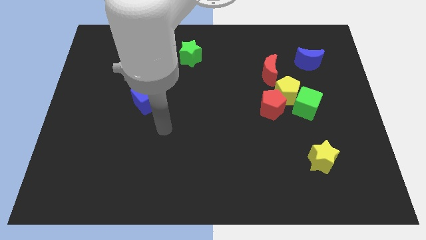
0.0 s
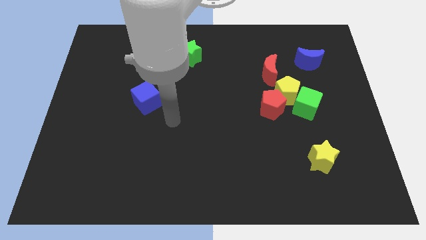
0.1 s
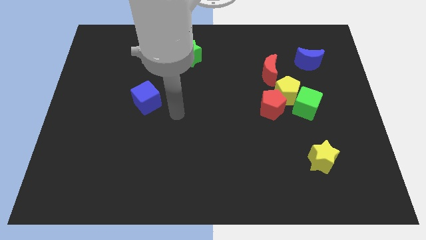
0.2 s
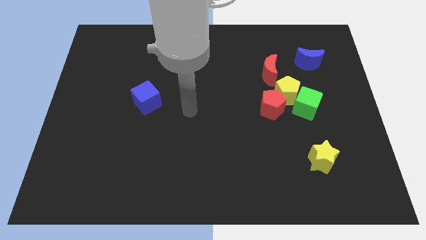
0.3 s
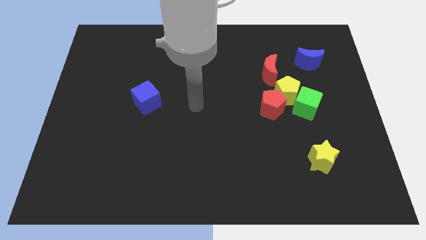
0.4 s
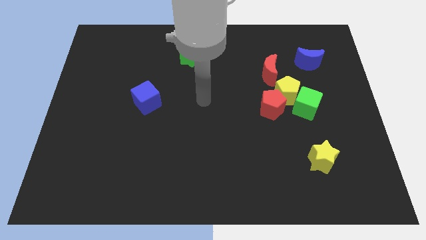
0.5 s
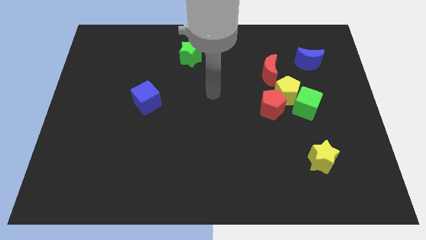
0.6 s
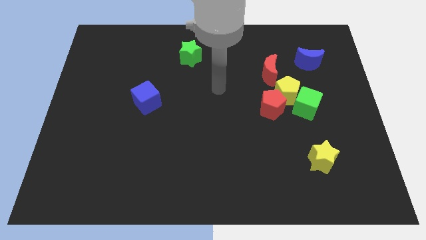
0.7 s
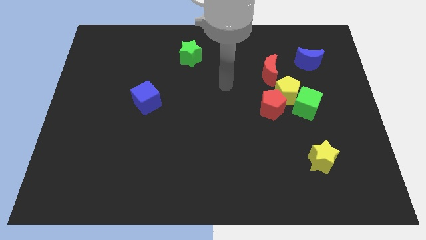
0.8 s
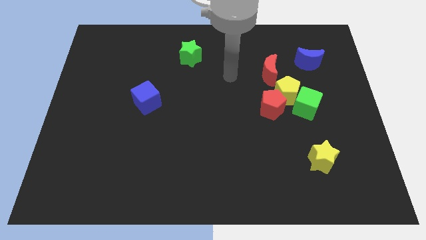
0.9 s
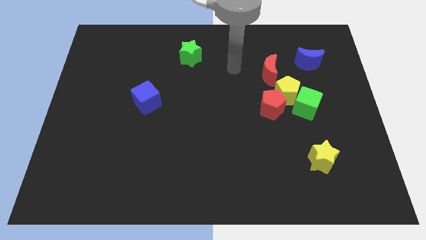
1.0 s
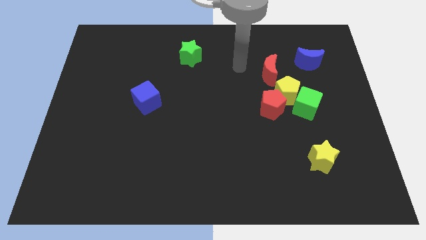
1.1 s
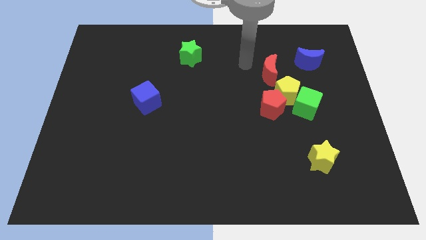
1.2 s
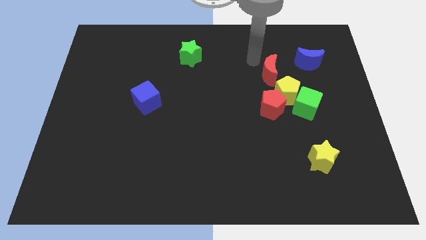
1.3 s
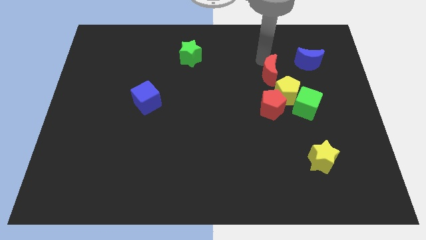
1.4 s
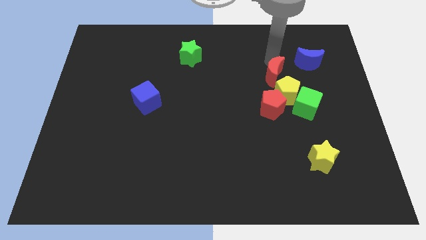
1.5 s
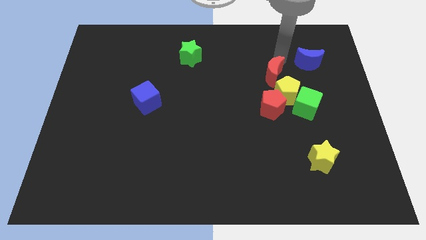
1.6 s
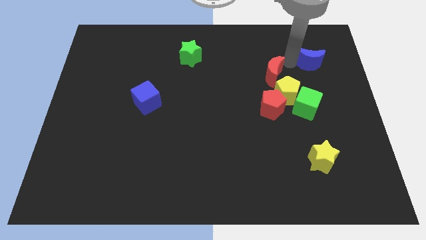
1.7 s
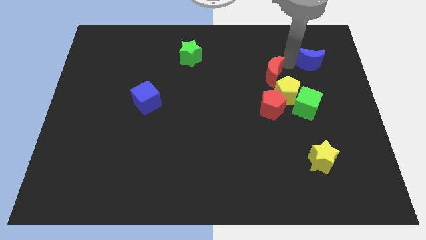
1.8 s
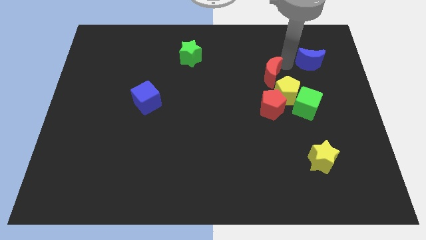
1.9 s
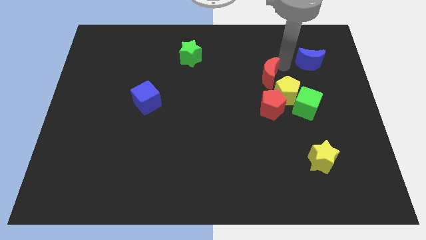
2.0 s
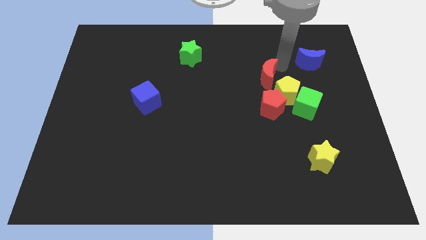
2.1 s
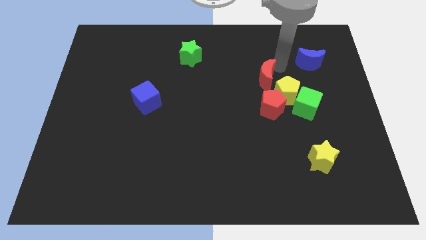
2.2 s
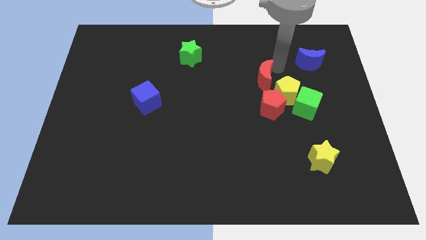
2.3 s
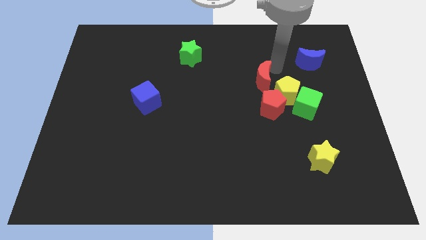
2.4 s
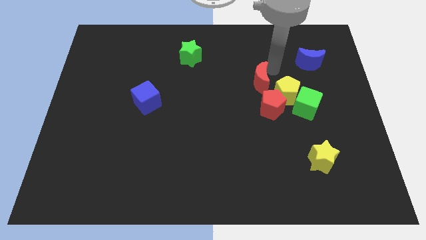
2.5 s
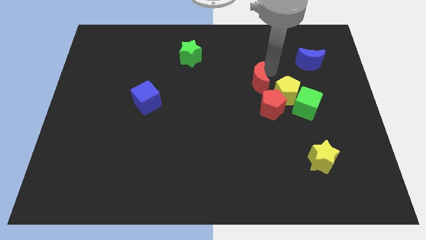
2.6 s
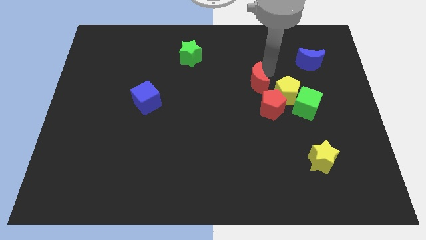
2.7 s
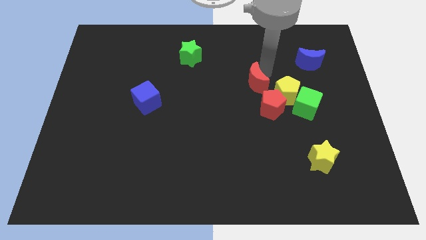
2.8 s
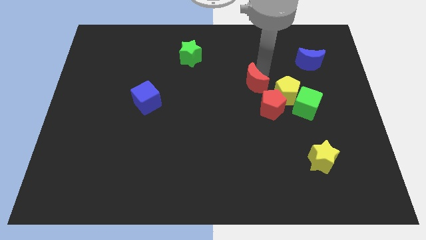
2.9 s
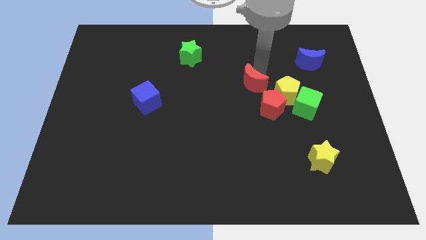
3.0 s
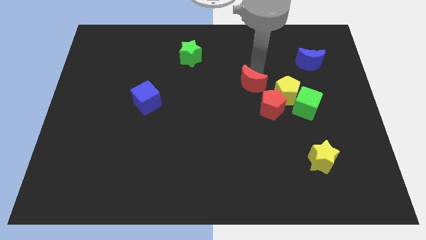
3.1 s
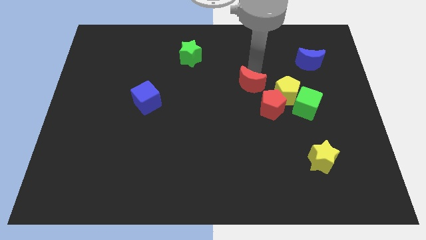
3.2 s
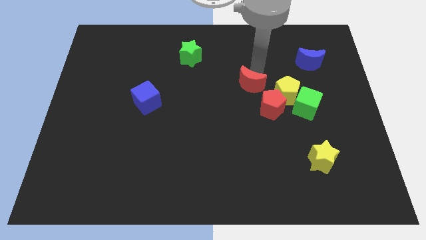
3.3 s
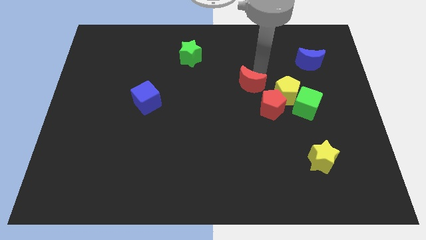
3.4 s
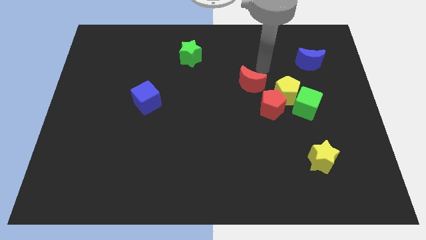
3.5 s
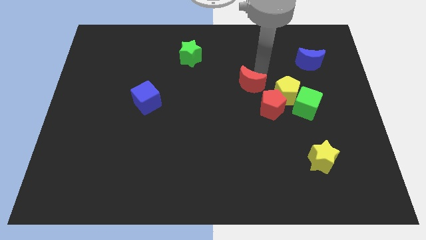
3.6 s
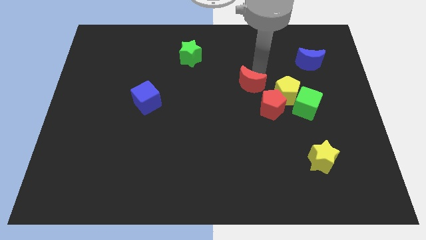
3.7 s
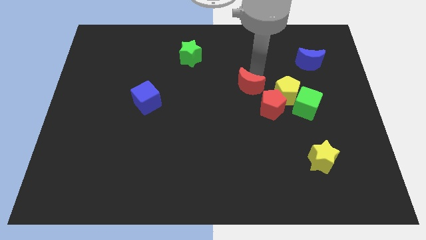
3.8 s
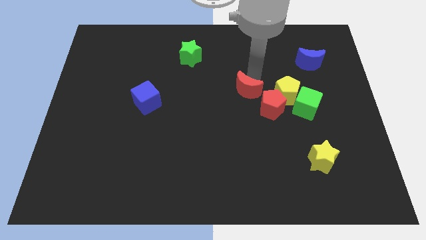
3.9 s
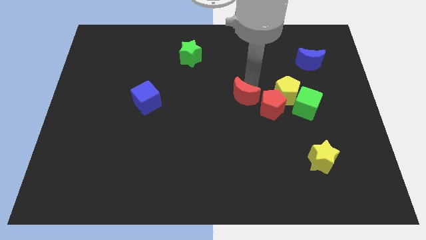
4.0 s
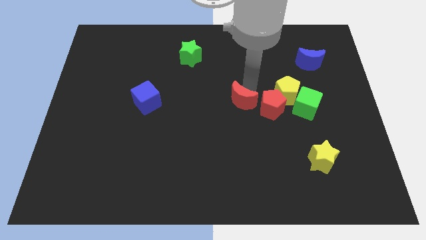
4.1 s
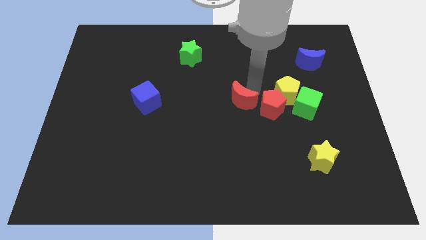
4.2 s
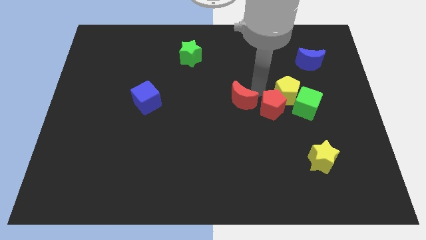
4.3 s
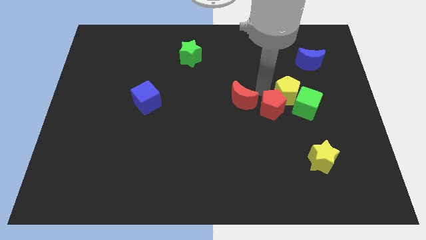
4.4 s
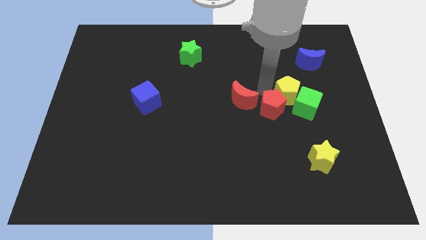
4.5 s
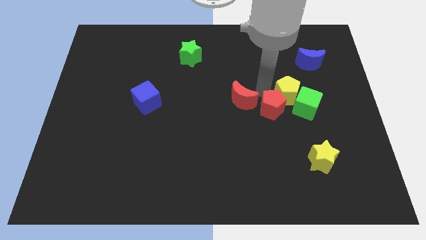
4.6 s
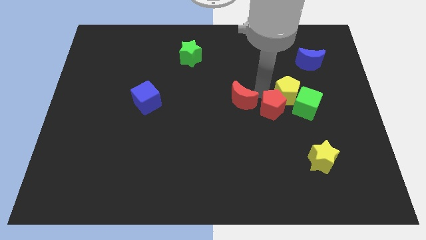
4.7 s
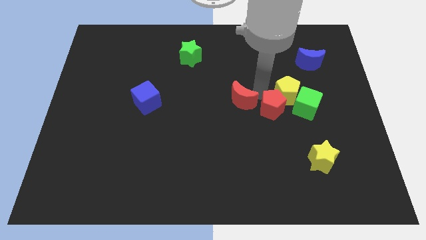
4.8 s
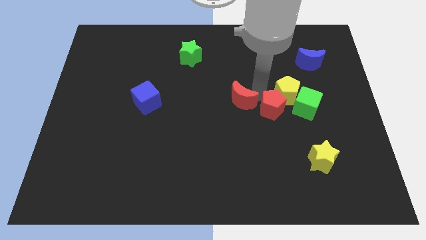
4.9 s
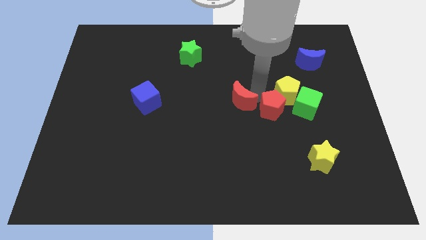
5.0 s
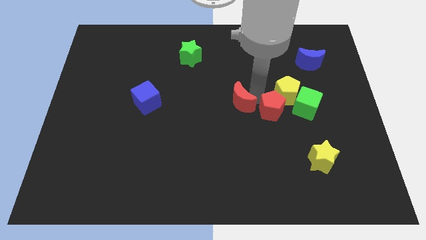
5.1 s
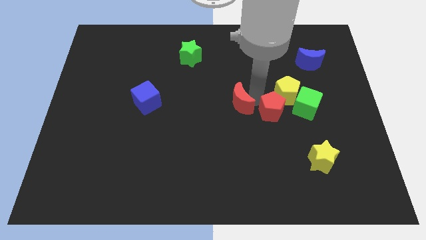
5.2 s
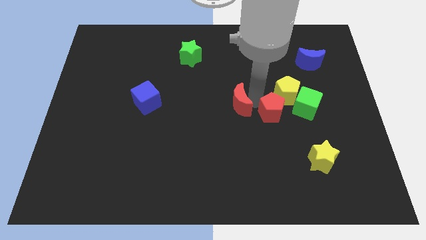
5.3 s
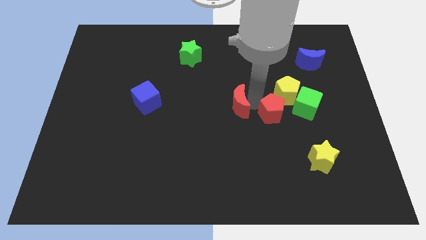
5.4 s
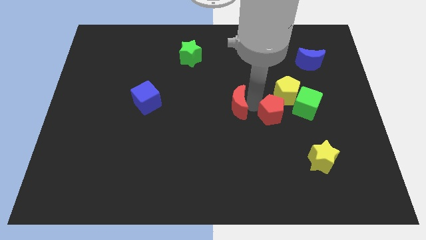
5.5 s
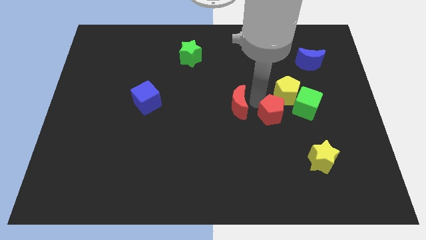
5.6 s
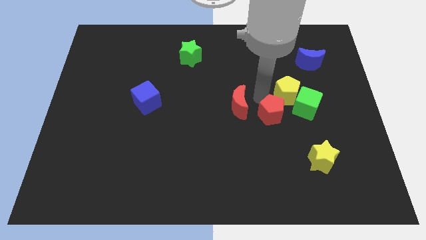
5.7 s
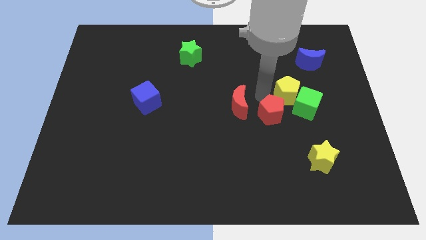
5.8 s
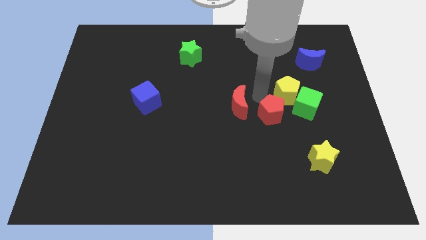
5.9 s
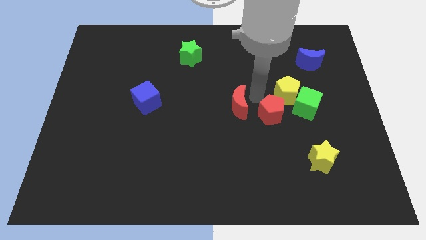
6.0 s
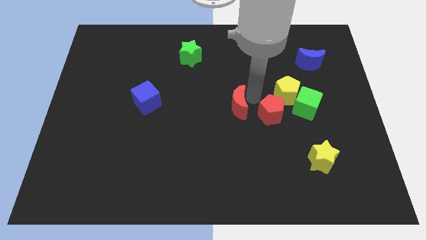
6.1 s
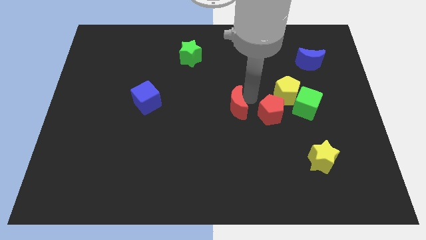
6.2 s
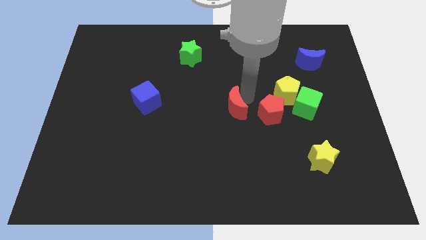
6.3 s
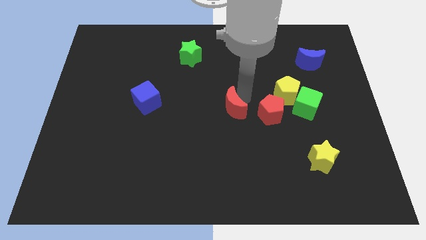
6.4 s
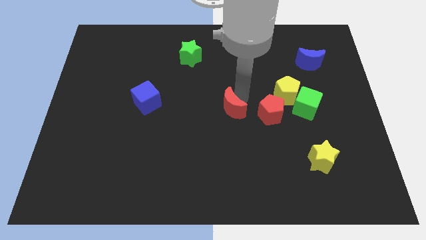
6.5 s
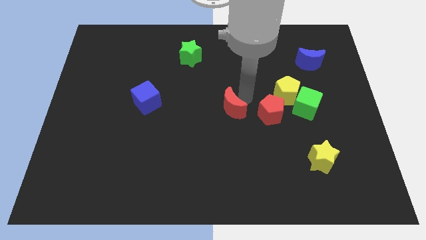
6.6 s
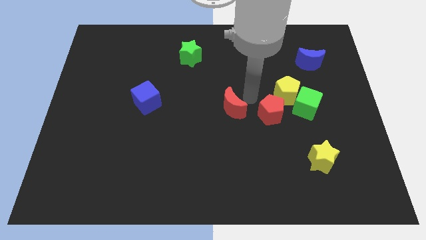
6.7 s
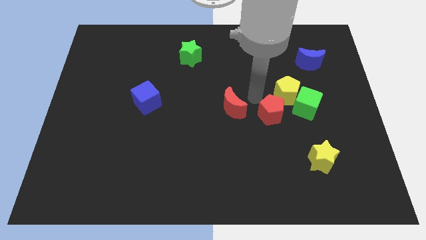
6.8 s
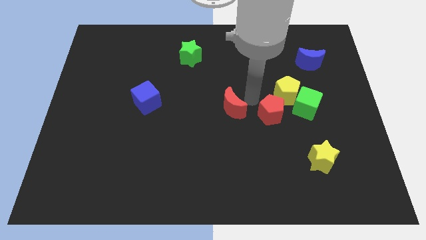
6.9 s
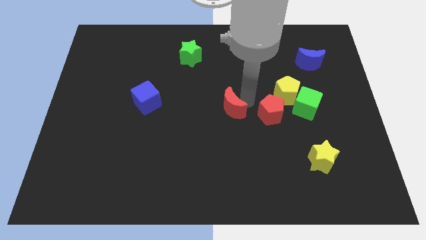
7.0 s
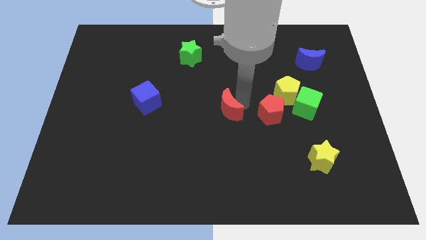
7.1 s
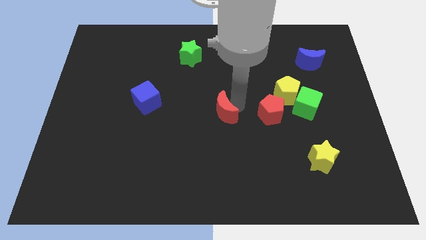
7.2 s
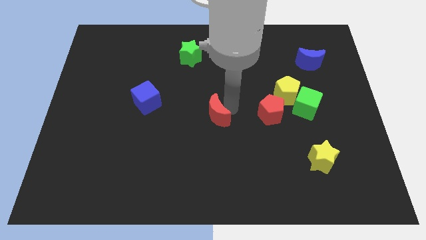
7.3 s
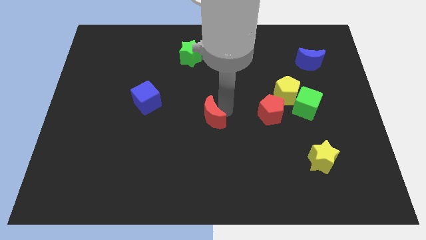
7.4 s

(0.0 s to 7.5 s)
push the red moon down and to the left

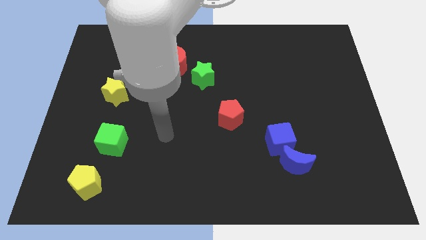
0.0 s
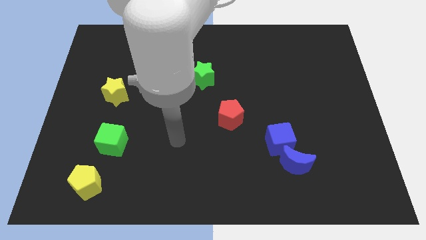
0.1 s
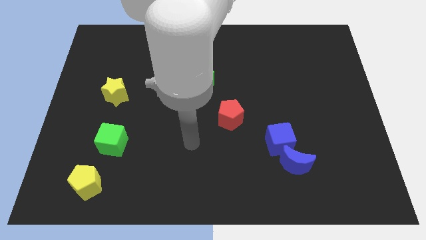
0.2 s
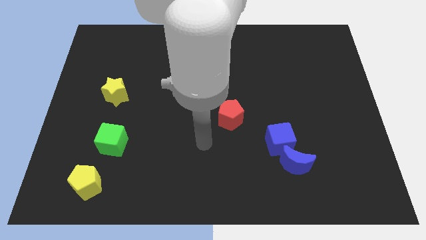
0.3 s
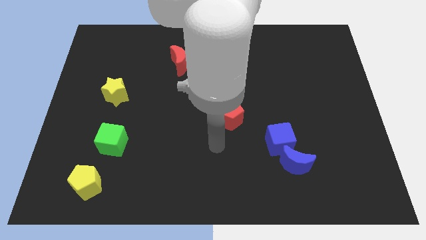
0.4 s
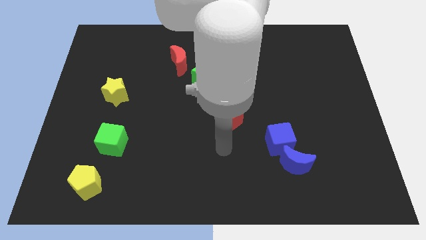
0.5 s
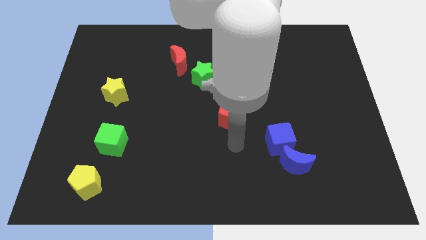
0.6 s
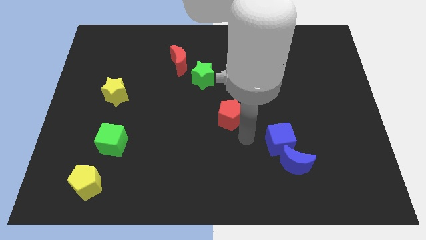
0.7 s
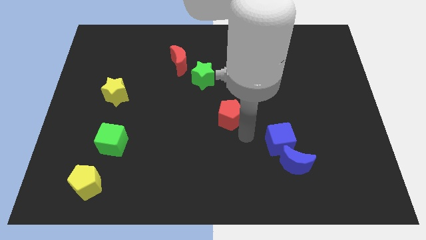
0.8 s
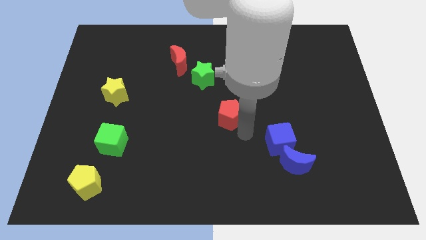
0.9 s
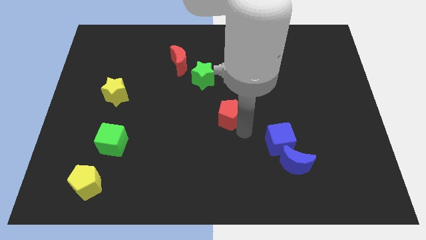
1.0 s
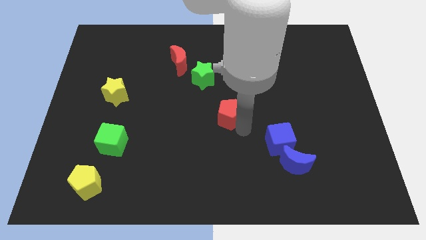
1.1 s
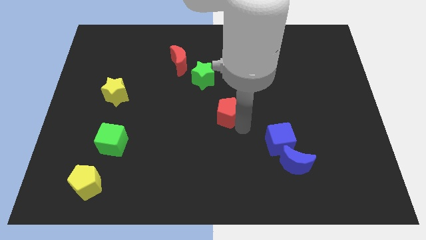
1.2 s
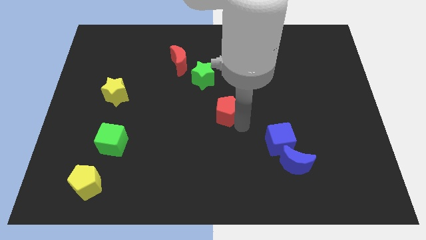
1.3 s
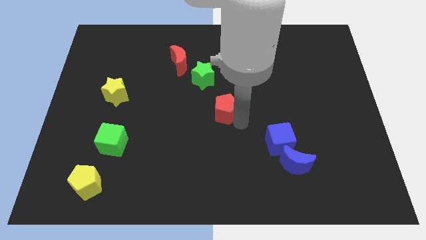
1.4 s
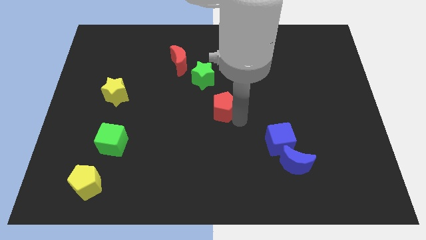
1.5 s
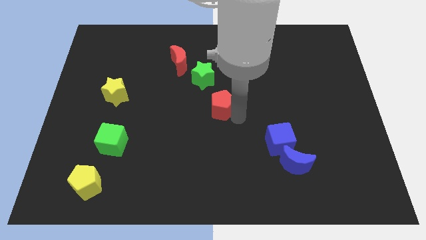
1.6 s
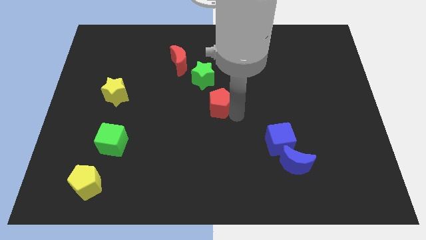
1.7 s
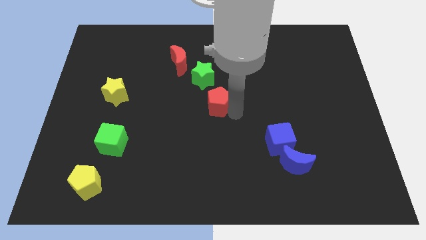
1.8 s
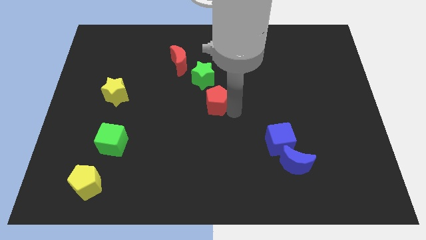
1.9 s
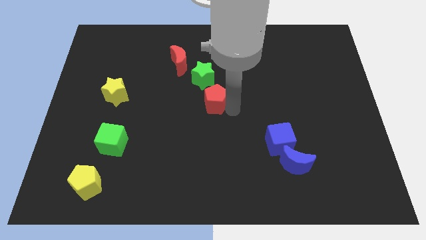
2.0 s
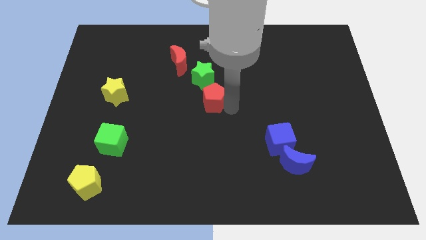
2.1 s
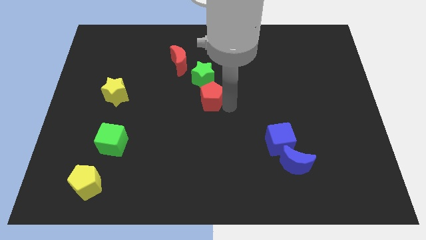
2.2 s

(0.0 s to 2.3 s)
slightly slide the red pentagon upwards and left
